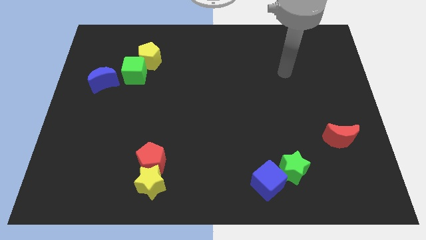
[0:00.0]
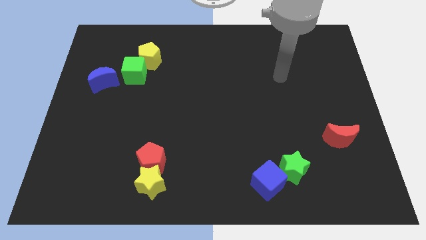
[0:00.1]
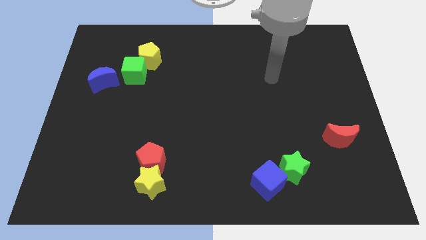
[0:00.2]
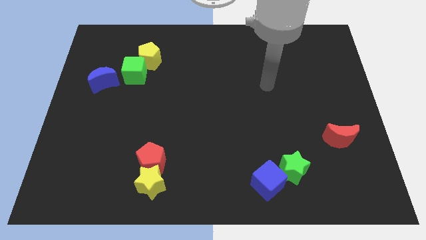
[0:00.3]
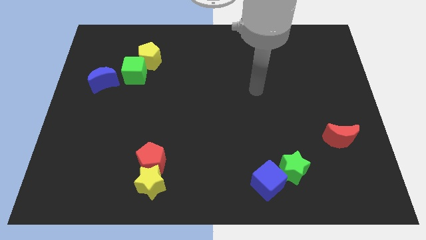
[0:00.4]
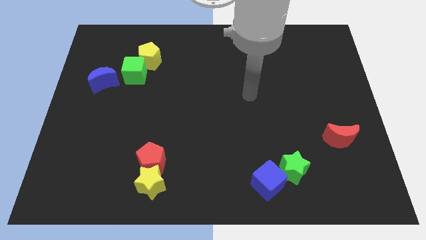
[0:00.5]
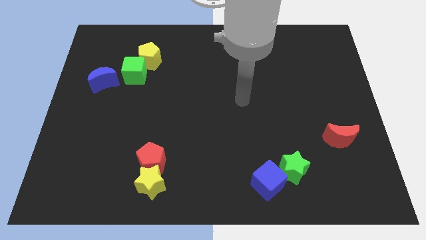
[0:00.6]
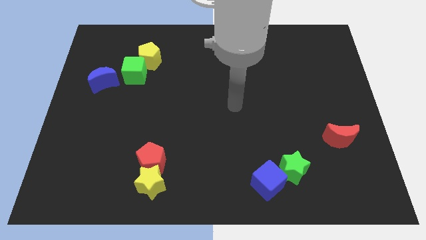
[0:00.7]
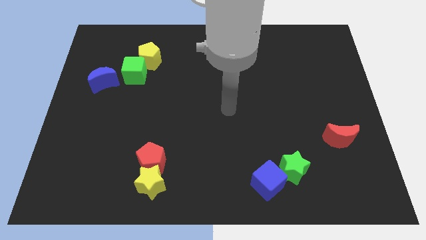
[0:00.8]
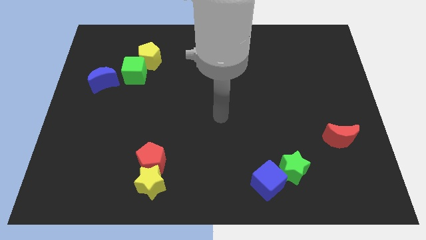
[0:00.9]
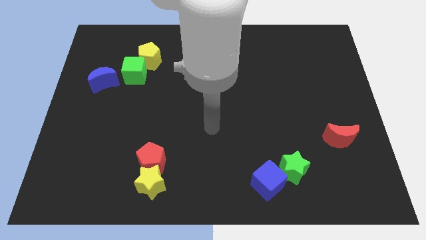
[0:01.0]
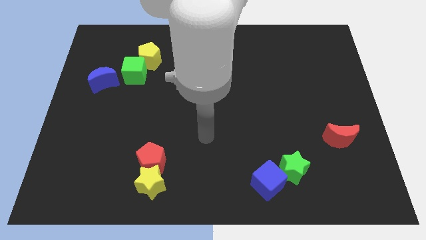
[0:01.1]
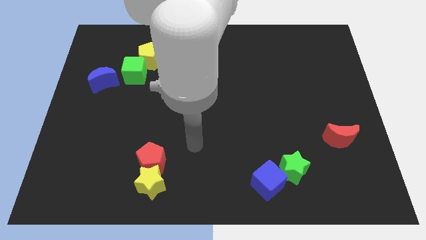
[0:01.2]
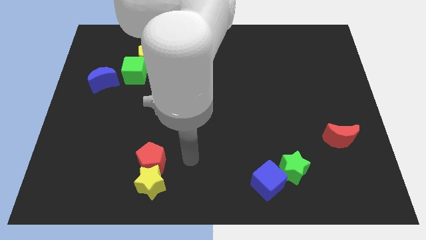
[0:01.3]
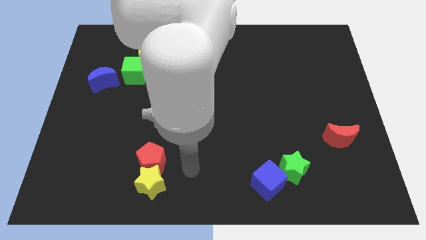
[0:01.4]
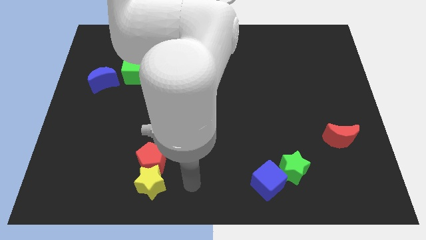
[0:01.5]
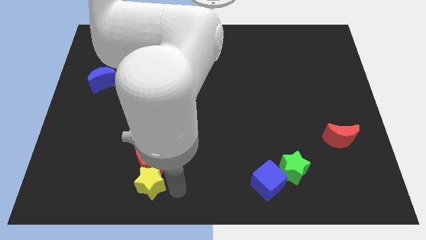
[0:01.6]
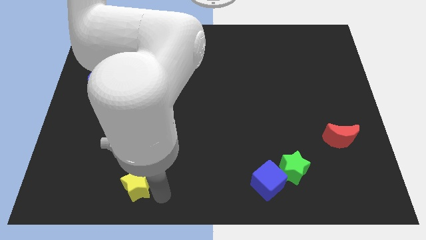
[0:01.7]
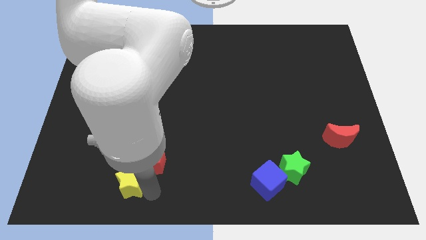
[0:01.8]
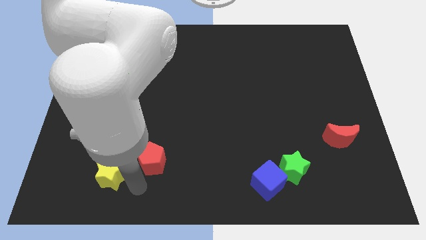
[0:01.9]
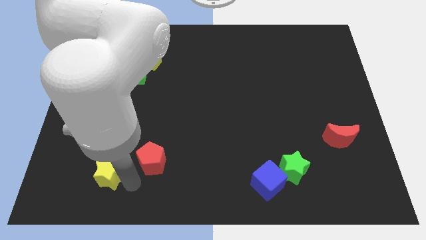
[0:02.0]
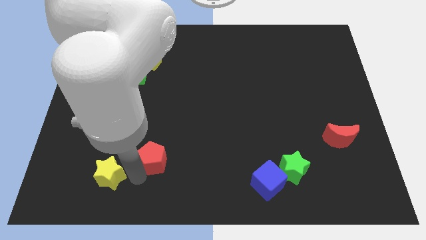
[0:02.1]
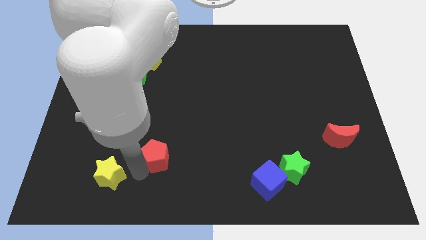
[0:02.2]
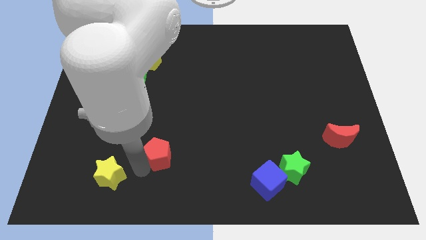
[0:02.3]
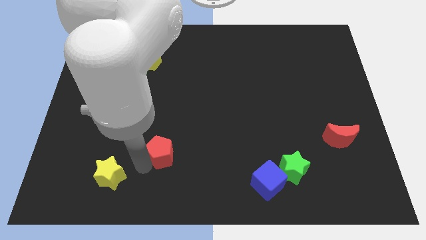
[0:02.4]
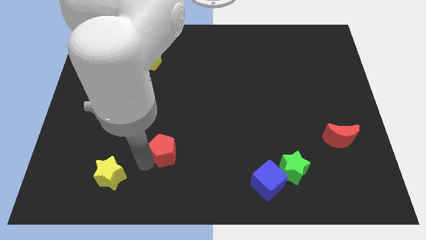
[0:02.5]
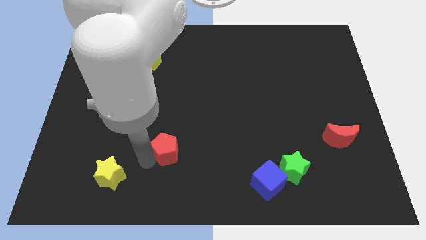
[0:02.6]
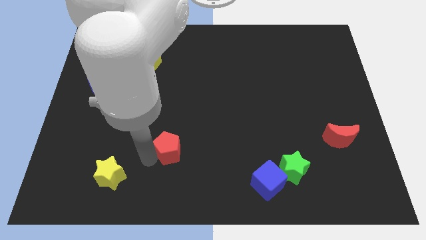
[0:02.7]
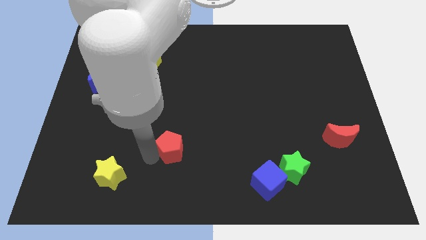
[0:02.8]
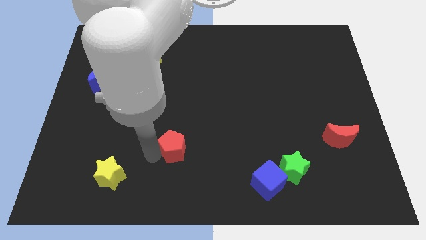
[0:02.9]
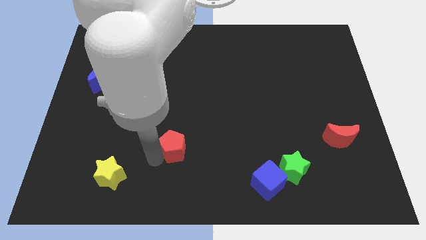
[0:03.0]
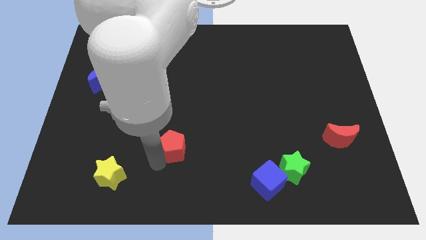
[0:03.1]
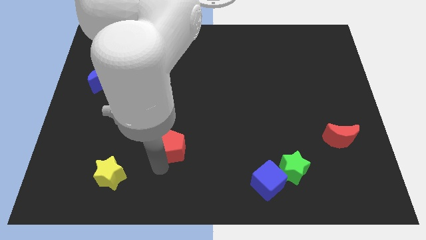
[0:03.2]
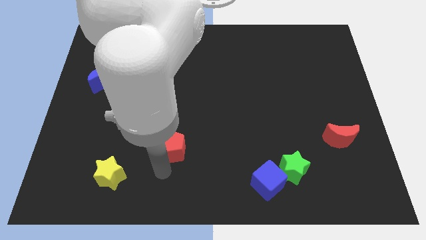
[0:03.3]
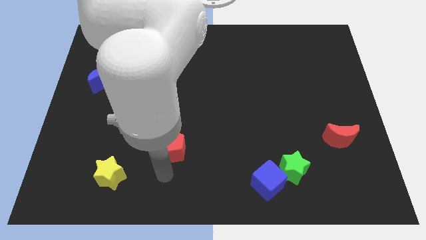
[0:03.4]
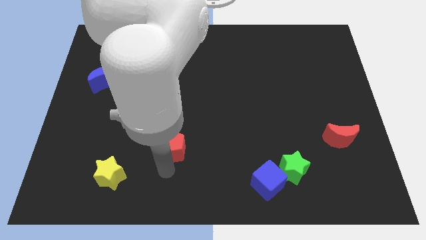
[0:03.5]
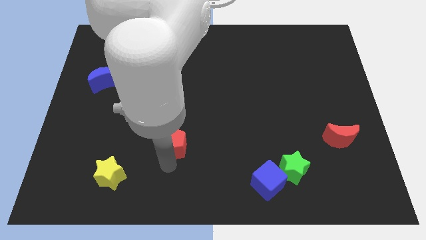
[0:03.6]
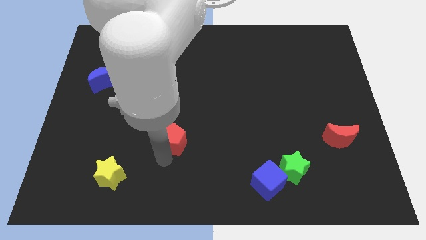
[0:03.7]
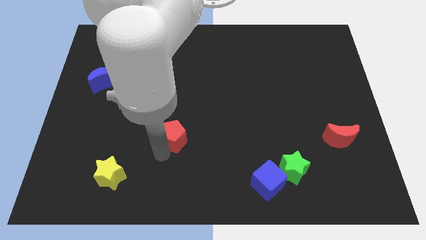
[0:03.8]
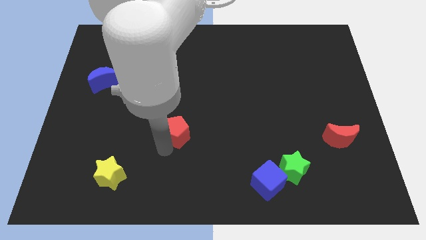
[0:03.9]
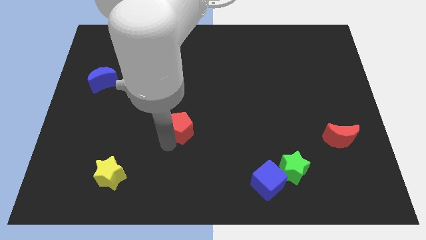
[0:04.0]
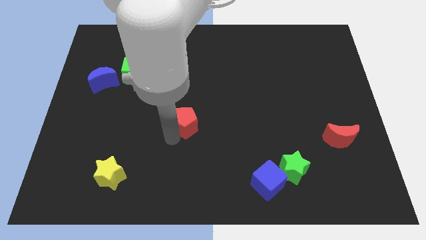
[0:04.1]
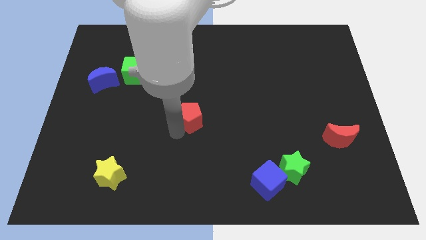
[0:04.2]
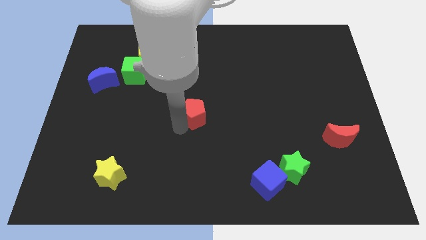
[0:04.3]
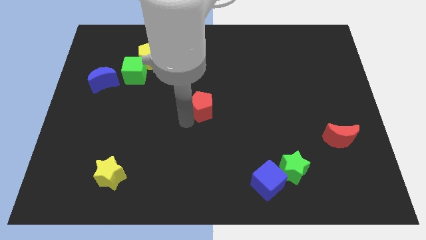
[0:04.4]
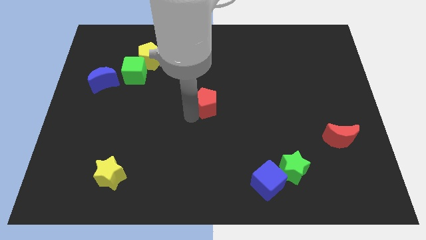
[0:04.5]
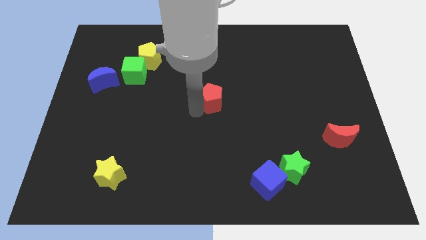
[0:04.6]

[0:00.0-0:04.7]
push the red pentagon up and then to the right

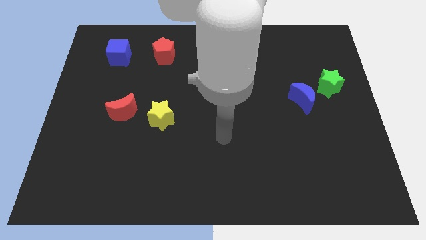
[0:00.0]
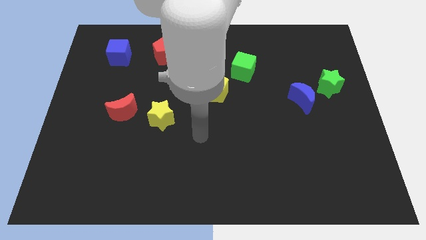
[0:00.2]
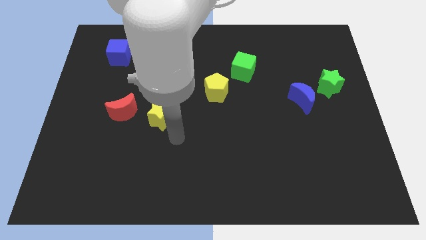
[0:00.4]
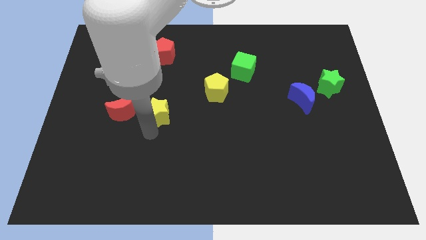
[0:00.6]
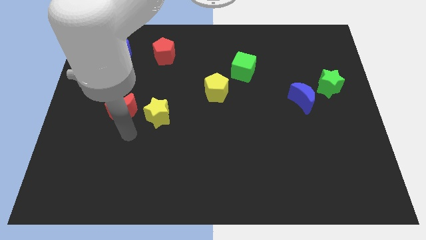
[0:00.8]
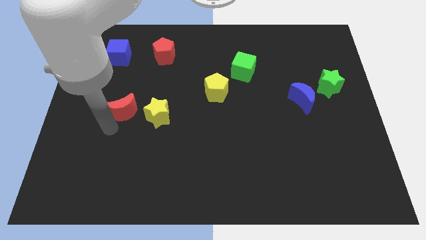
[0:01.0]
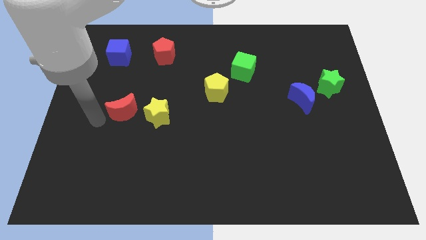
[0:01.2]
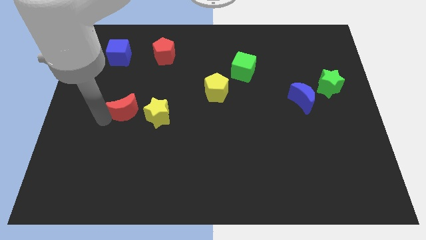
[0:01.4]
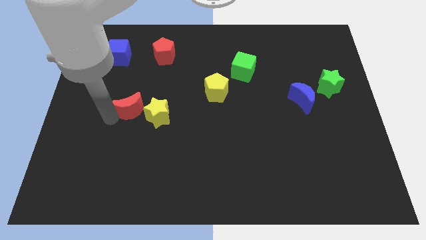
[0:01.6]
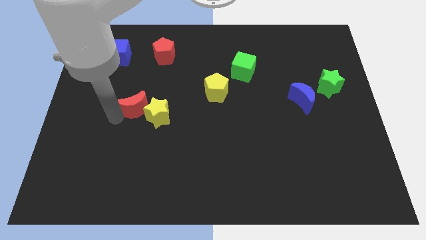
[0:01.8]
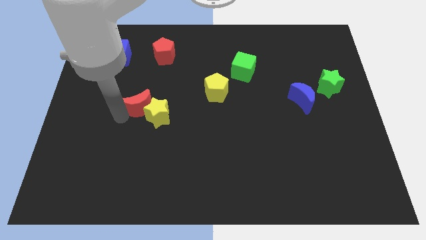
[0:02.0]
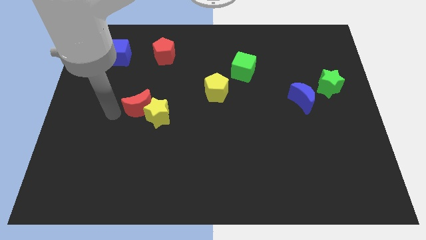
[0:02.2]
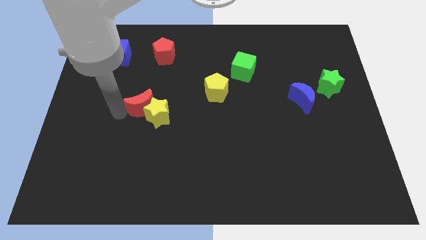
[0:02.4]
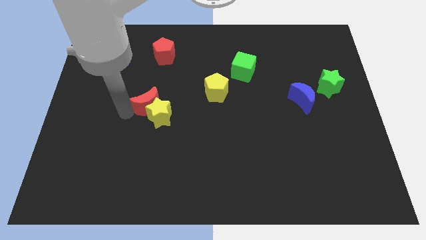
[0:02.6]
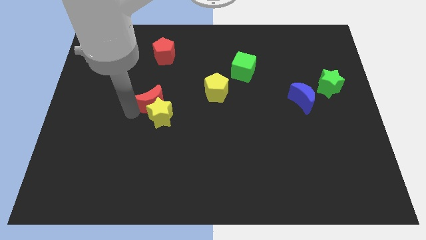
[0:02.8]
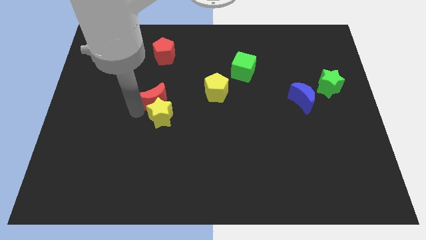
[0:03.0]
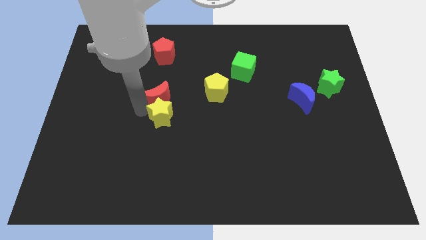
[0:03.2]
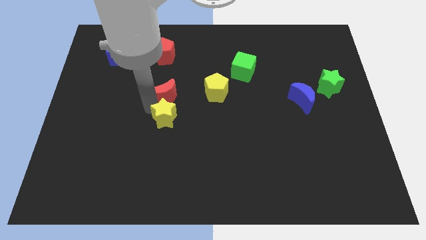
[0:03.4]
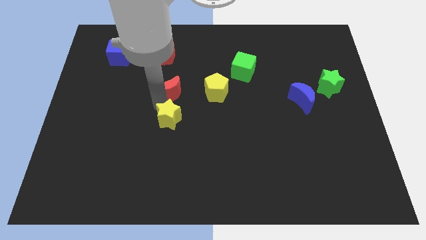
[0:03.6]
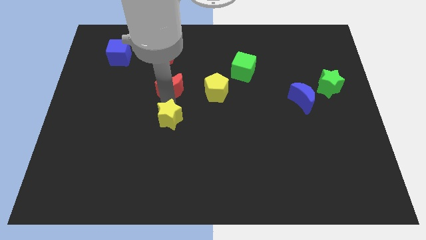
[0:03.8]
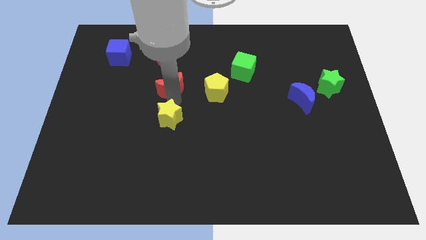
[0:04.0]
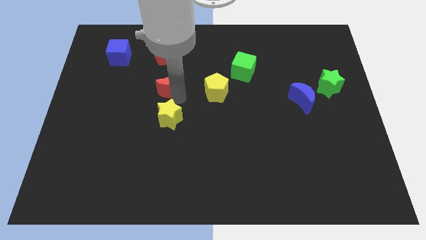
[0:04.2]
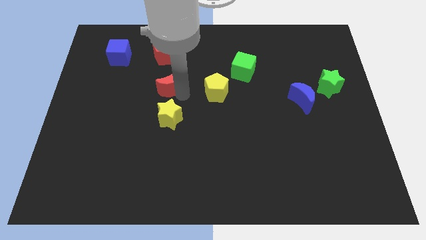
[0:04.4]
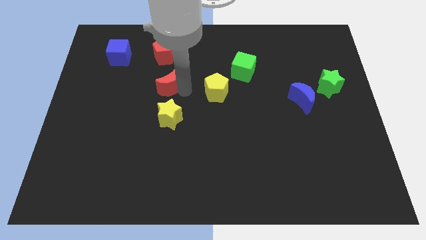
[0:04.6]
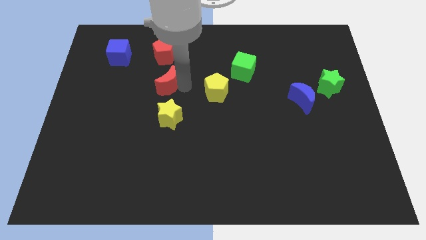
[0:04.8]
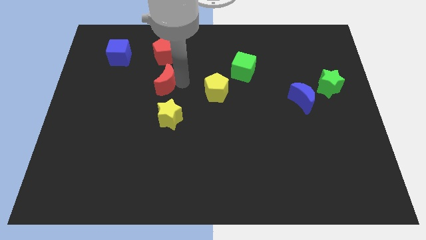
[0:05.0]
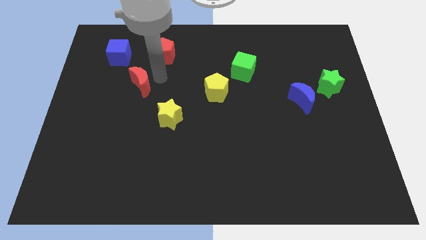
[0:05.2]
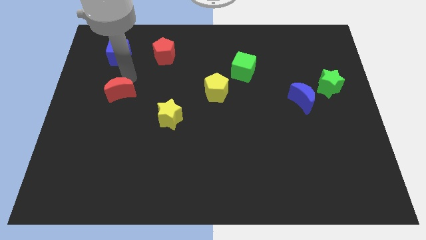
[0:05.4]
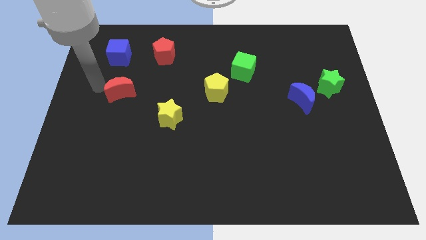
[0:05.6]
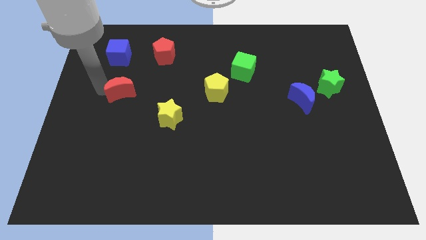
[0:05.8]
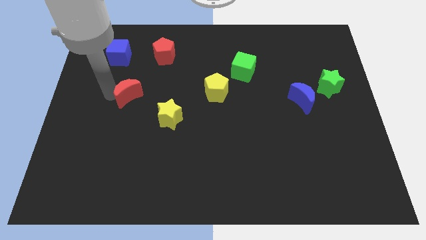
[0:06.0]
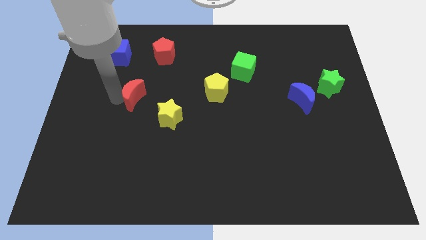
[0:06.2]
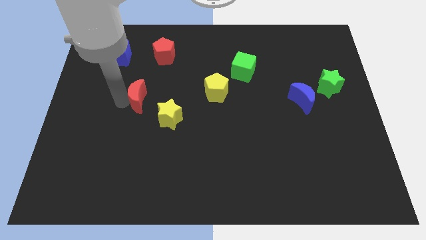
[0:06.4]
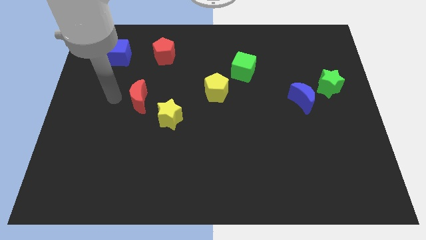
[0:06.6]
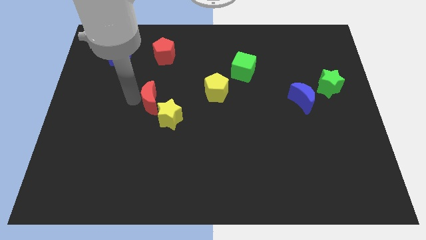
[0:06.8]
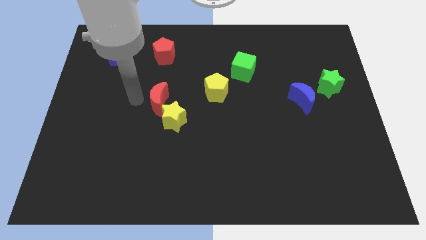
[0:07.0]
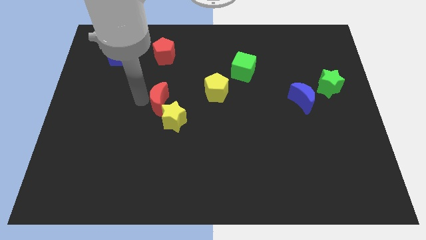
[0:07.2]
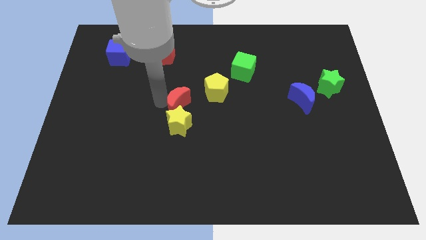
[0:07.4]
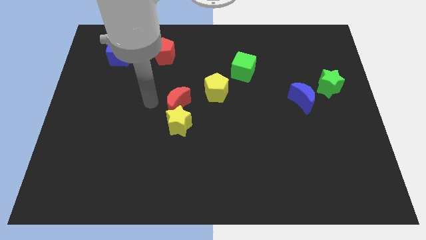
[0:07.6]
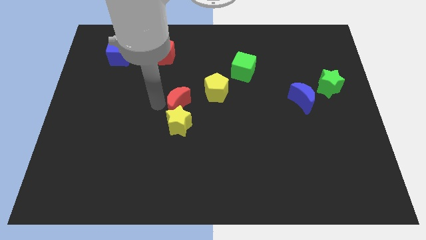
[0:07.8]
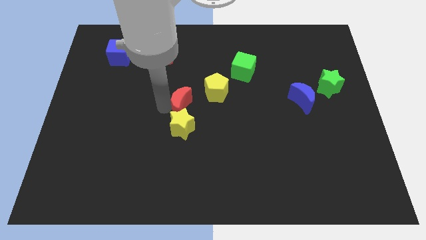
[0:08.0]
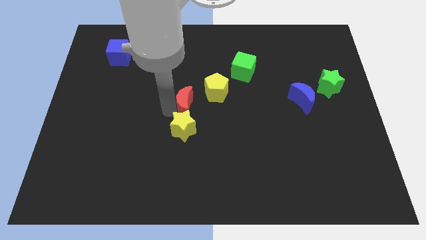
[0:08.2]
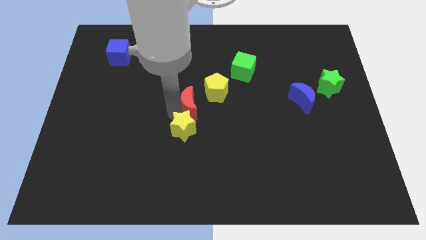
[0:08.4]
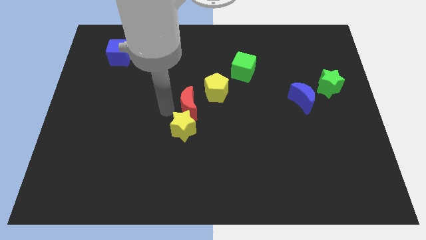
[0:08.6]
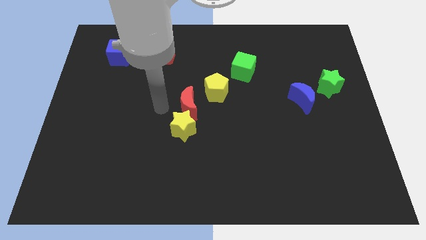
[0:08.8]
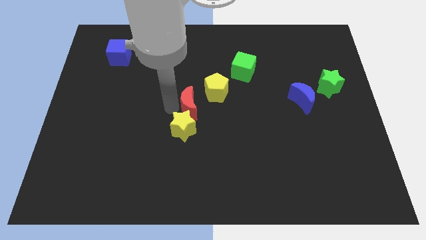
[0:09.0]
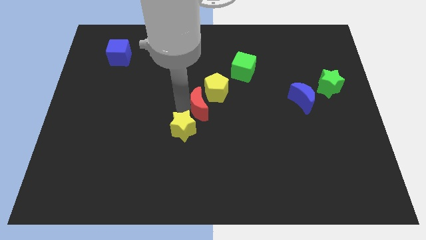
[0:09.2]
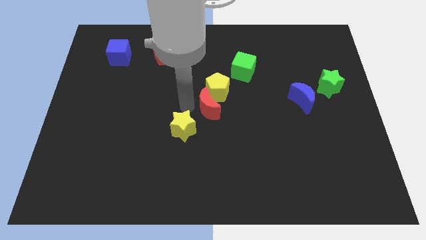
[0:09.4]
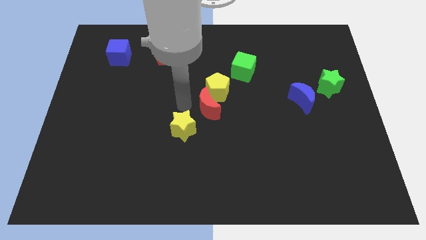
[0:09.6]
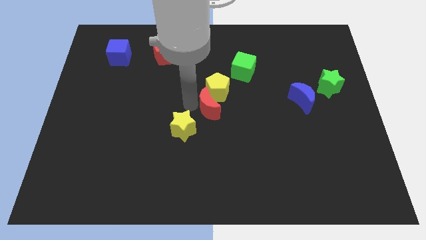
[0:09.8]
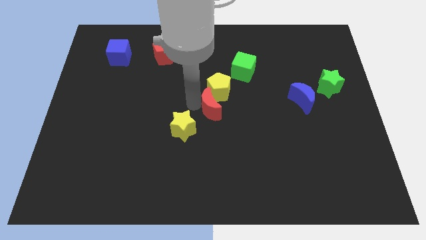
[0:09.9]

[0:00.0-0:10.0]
slide the red moon to the right
